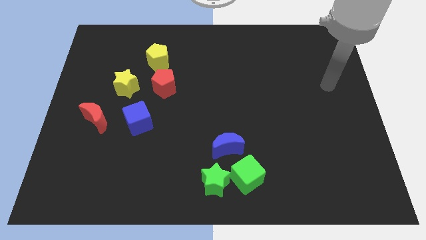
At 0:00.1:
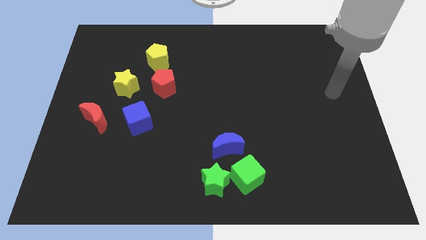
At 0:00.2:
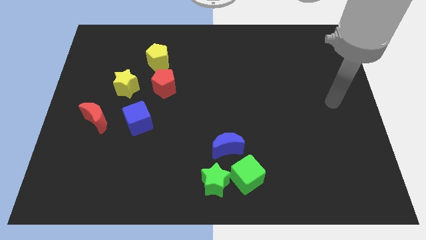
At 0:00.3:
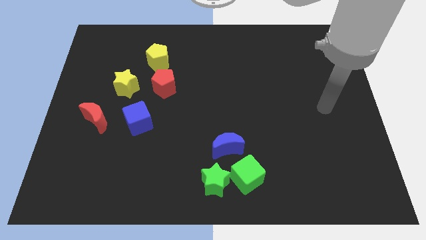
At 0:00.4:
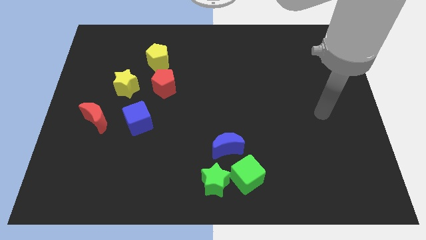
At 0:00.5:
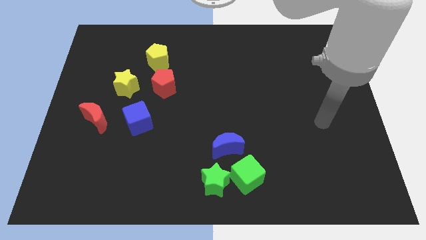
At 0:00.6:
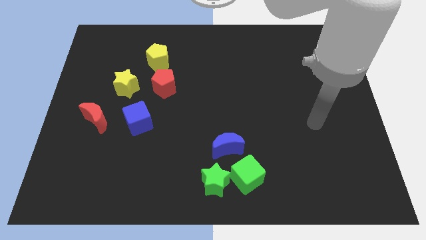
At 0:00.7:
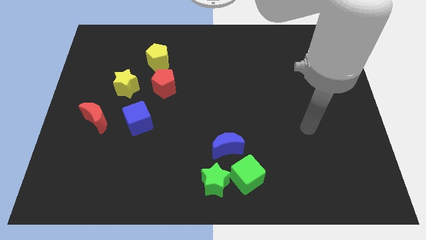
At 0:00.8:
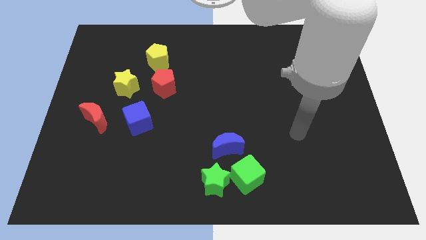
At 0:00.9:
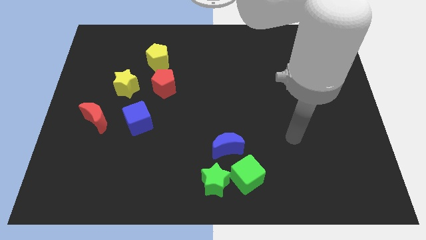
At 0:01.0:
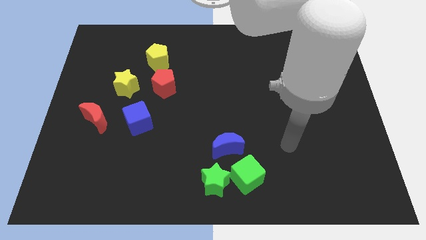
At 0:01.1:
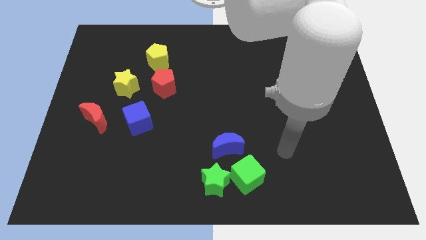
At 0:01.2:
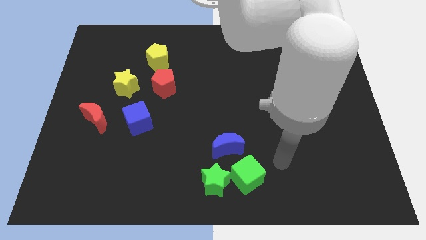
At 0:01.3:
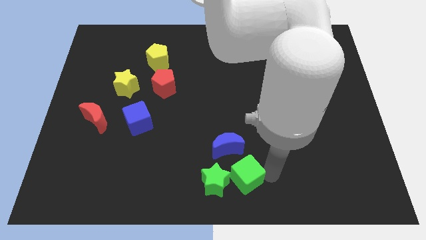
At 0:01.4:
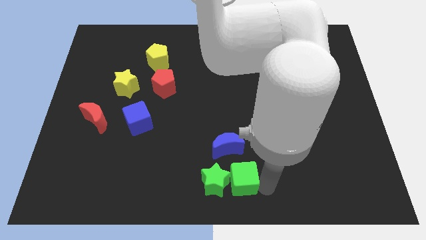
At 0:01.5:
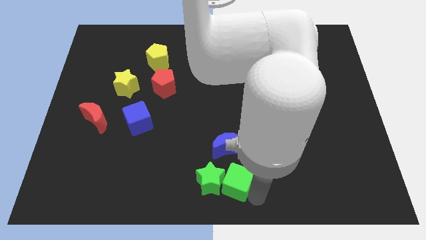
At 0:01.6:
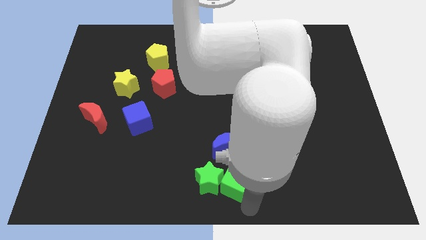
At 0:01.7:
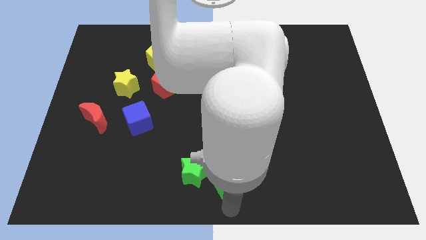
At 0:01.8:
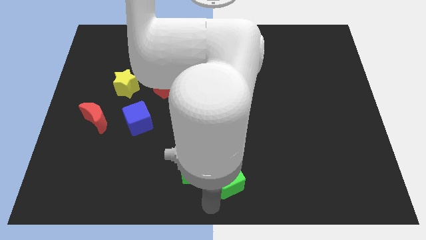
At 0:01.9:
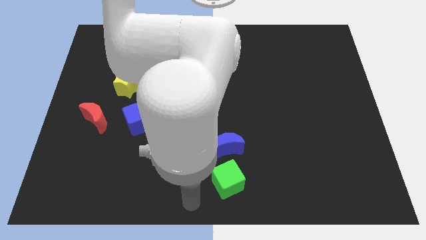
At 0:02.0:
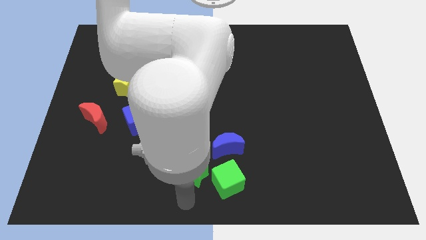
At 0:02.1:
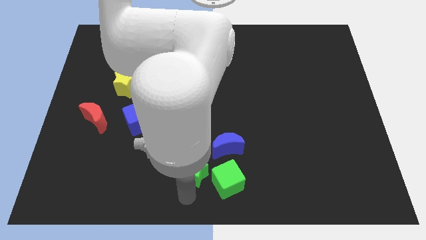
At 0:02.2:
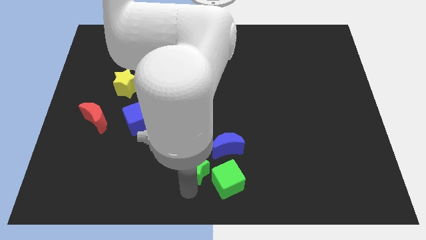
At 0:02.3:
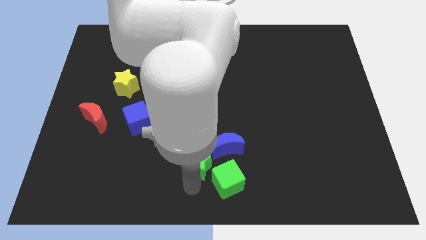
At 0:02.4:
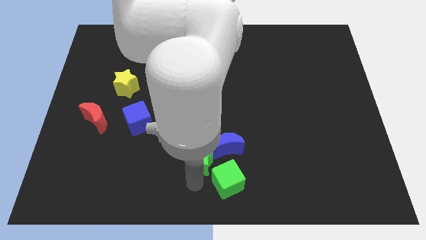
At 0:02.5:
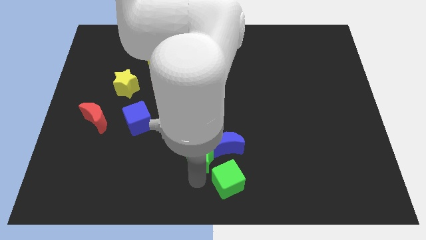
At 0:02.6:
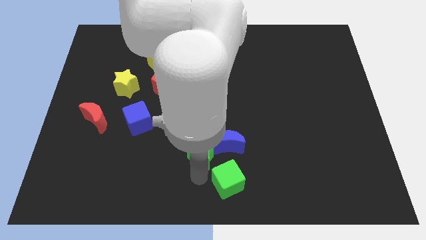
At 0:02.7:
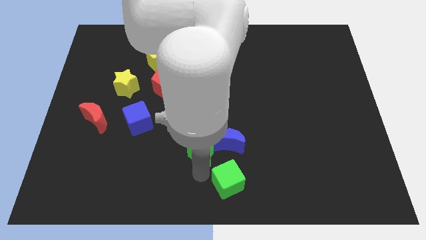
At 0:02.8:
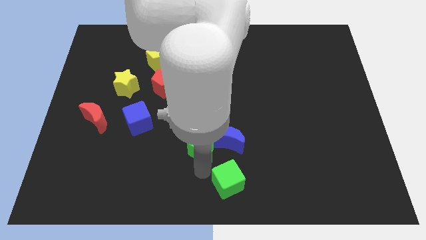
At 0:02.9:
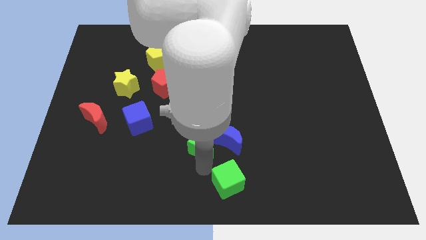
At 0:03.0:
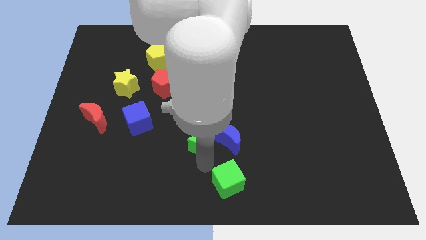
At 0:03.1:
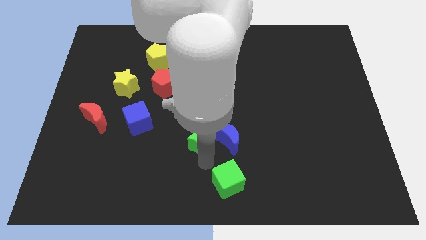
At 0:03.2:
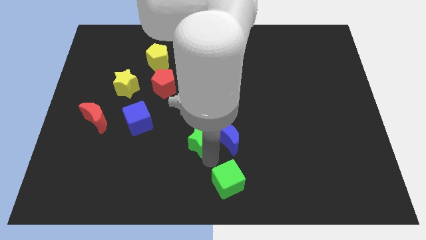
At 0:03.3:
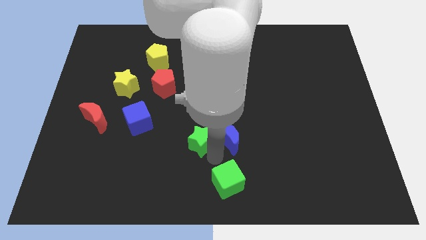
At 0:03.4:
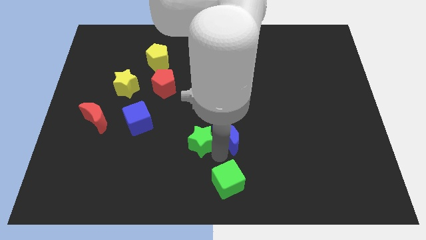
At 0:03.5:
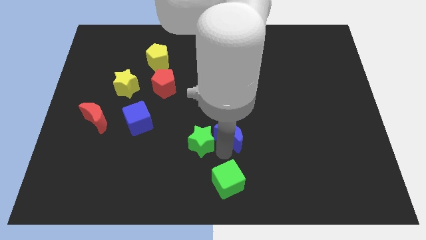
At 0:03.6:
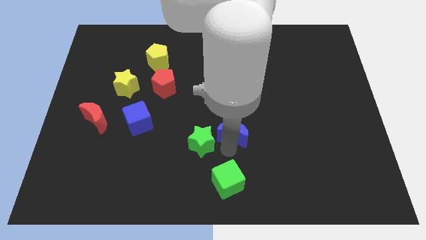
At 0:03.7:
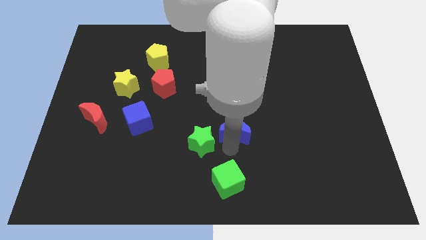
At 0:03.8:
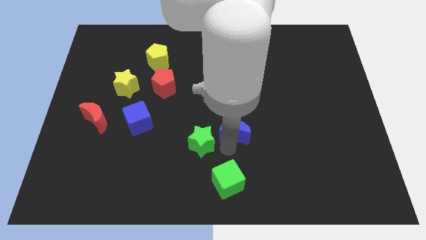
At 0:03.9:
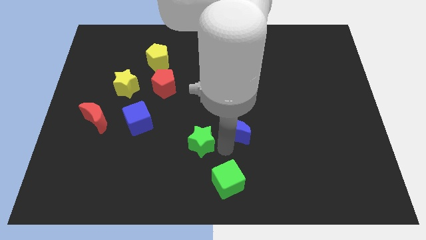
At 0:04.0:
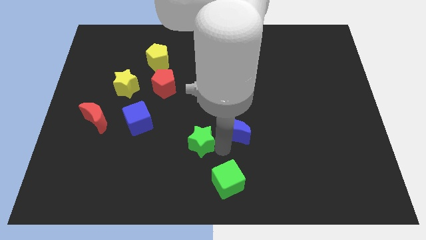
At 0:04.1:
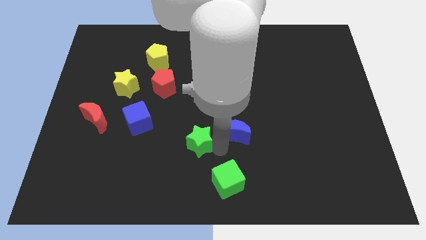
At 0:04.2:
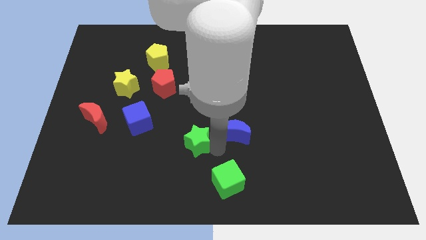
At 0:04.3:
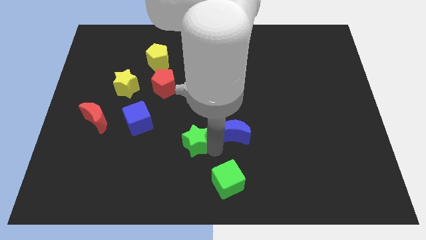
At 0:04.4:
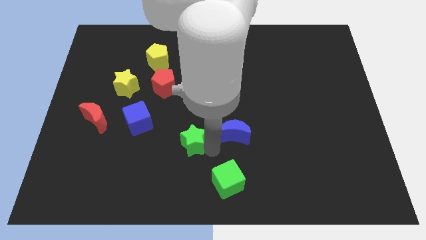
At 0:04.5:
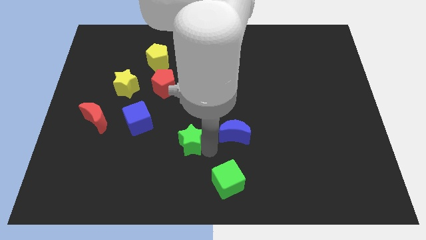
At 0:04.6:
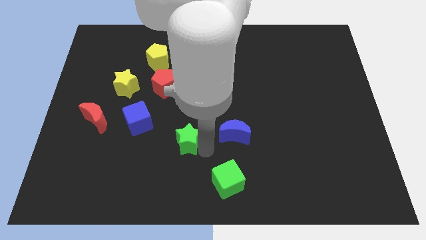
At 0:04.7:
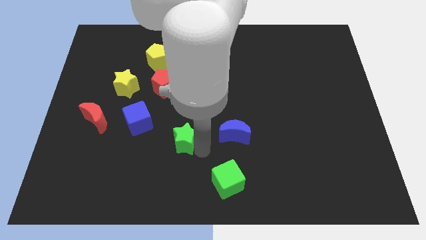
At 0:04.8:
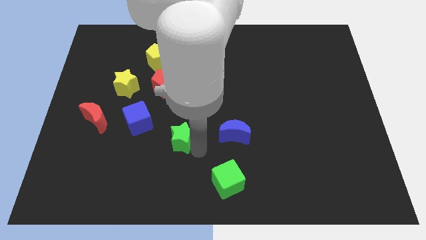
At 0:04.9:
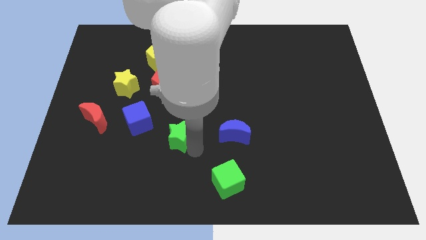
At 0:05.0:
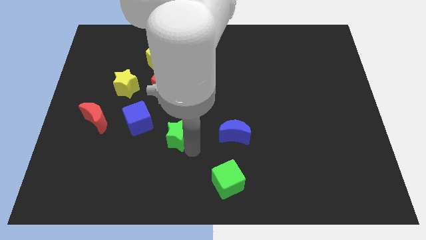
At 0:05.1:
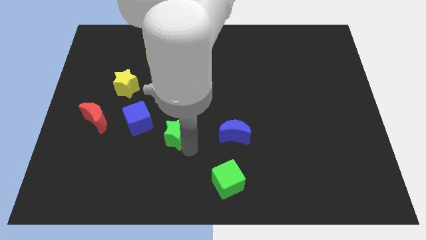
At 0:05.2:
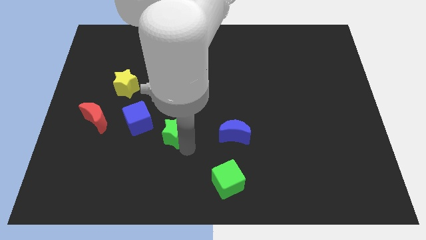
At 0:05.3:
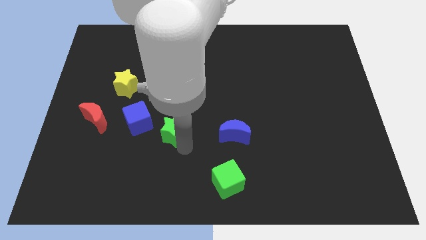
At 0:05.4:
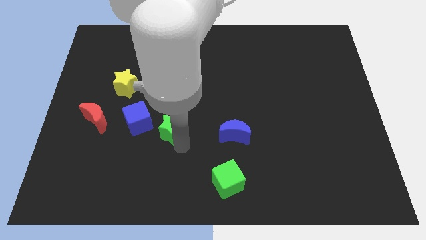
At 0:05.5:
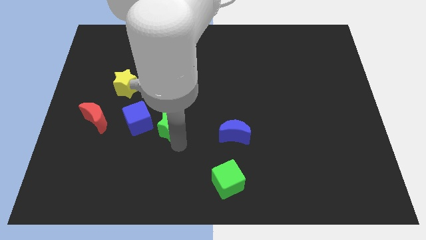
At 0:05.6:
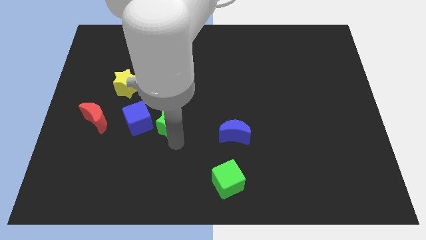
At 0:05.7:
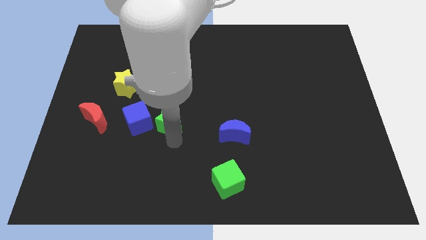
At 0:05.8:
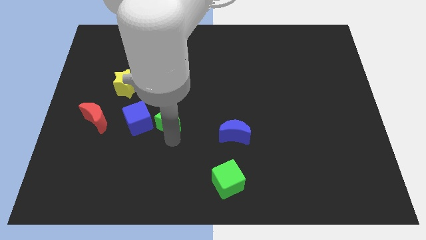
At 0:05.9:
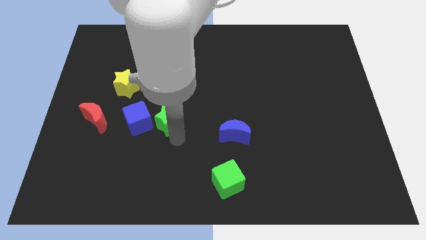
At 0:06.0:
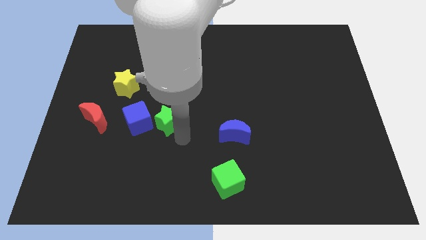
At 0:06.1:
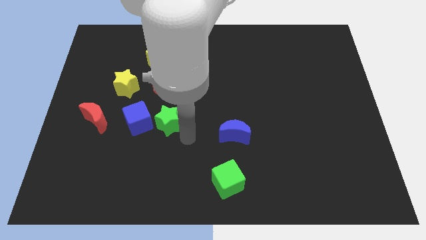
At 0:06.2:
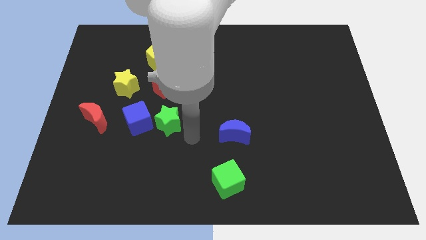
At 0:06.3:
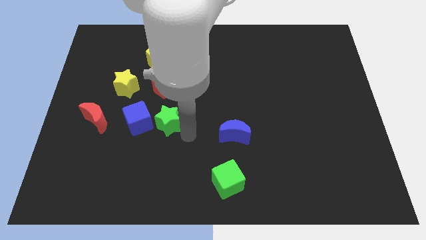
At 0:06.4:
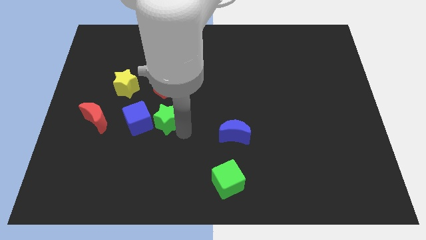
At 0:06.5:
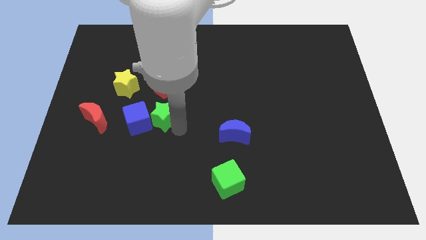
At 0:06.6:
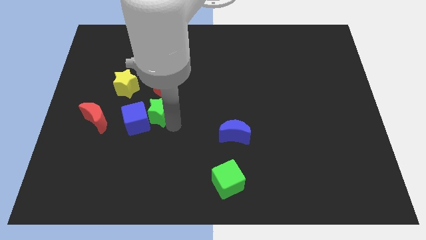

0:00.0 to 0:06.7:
push the green star diagonally down and to the right of the yellow star

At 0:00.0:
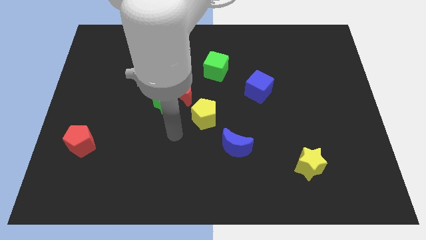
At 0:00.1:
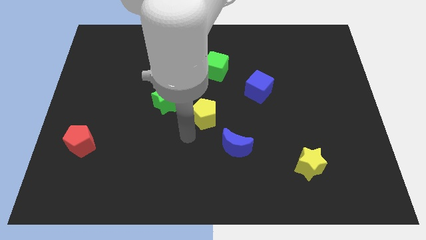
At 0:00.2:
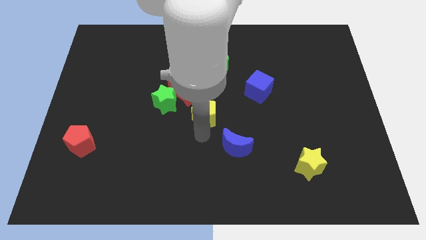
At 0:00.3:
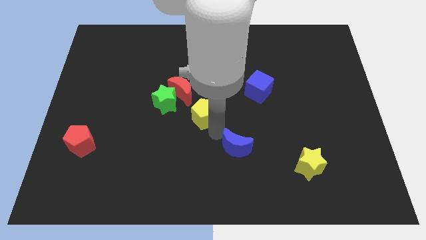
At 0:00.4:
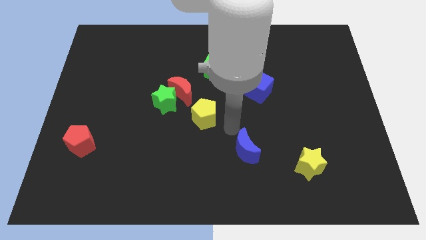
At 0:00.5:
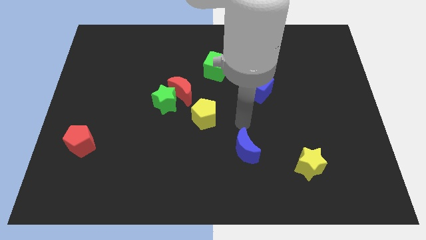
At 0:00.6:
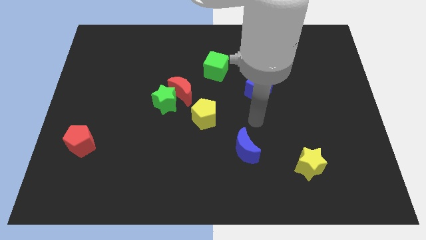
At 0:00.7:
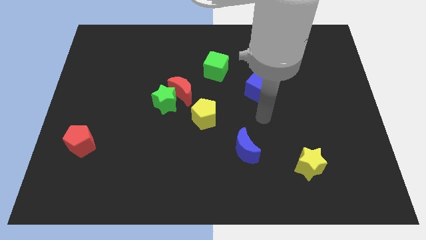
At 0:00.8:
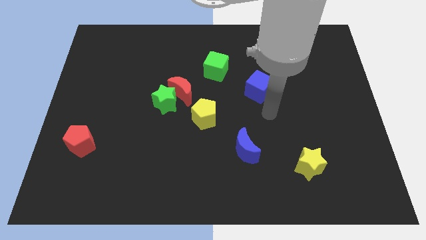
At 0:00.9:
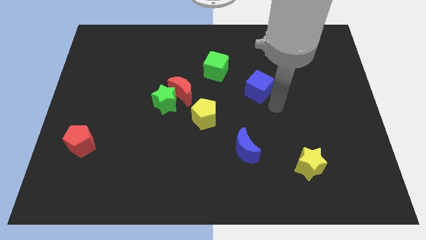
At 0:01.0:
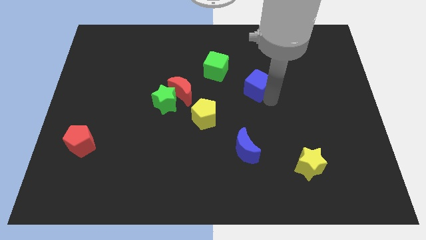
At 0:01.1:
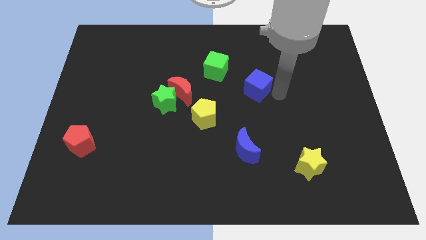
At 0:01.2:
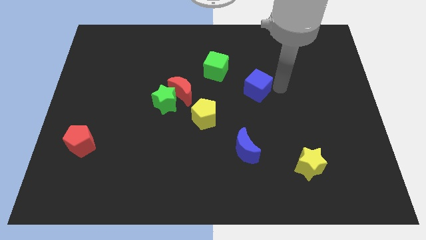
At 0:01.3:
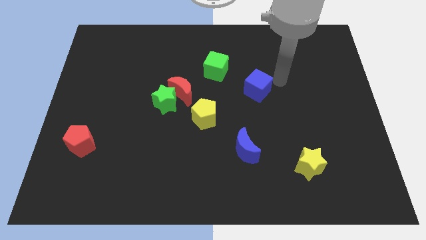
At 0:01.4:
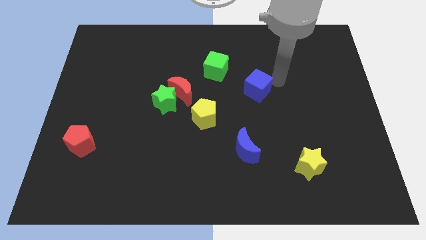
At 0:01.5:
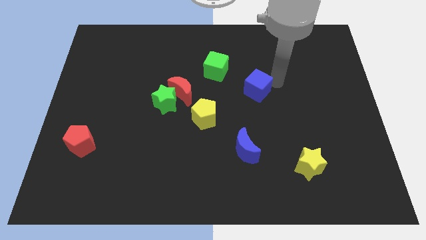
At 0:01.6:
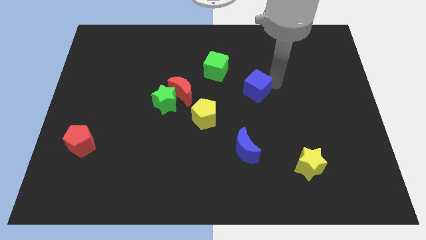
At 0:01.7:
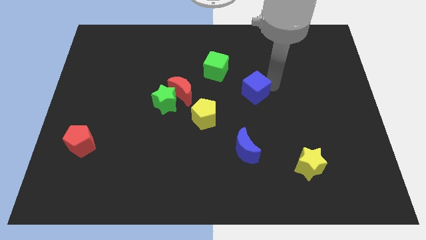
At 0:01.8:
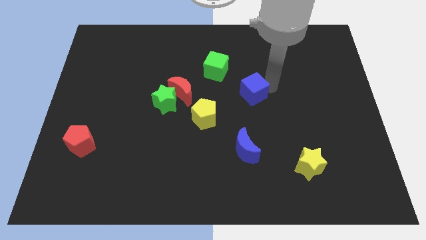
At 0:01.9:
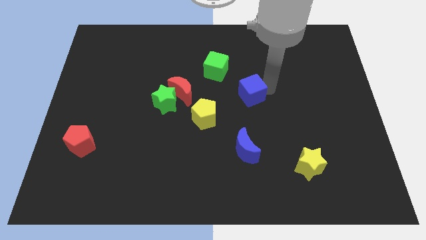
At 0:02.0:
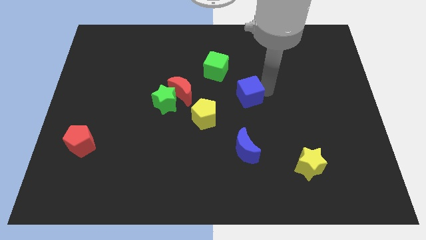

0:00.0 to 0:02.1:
put the blue cube just right of the red moon
